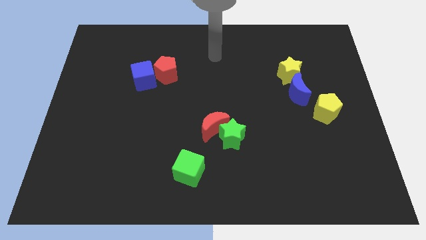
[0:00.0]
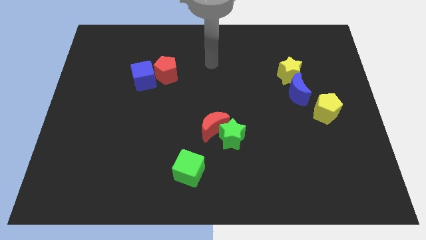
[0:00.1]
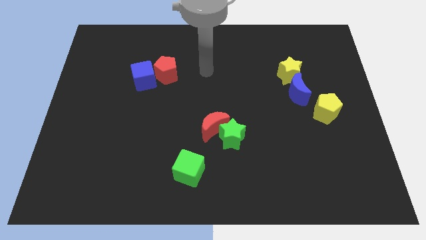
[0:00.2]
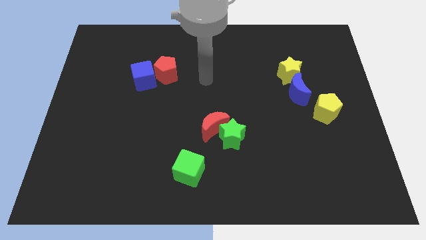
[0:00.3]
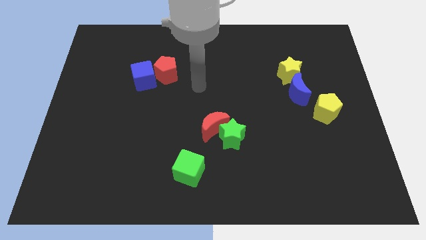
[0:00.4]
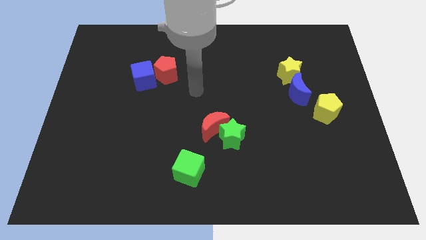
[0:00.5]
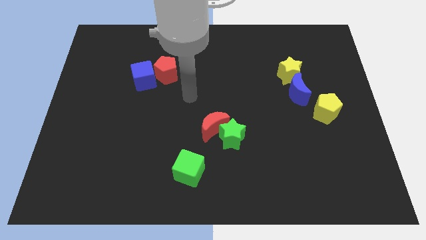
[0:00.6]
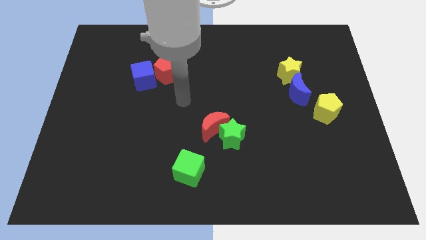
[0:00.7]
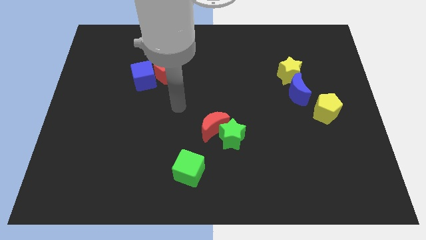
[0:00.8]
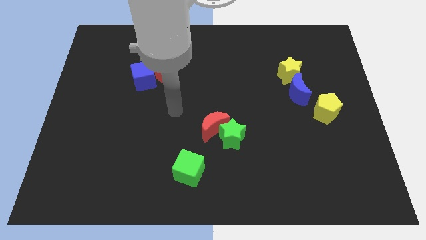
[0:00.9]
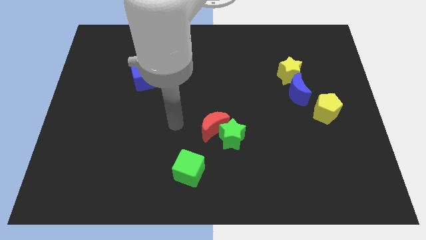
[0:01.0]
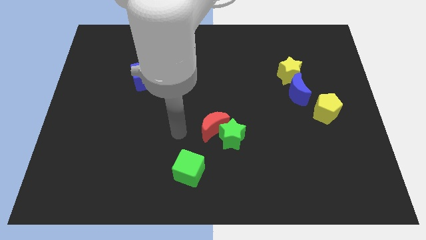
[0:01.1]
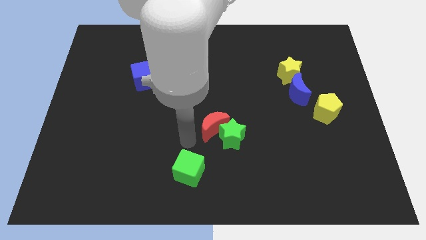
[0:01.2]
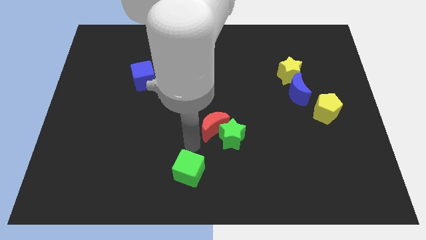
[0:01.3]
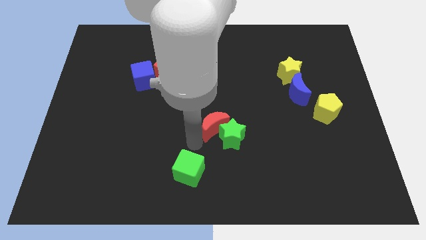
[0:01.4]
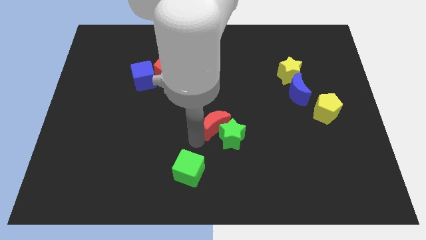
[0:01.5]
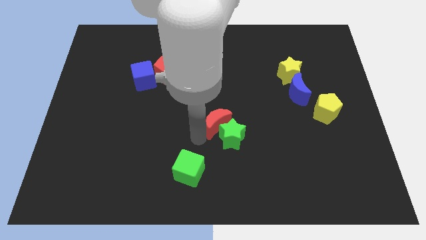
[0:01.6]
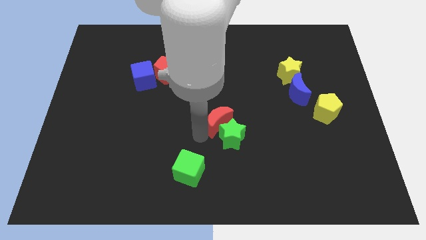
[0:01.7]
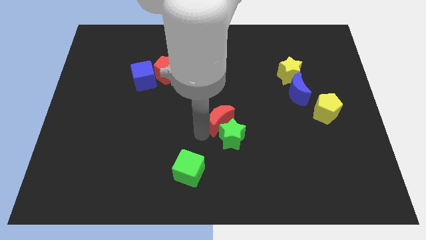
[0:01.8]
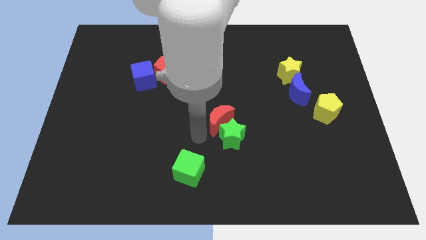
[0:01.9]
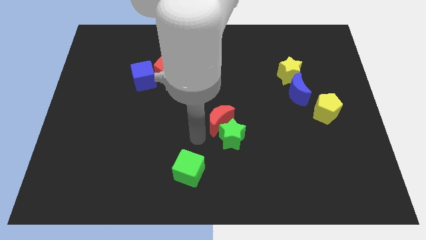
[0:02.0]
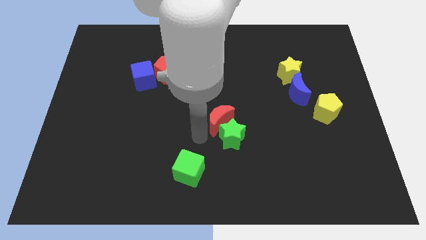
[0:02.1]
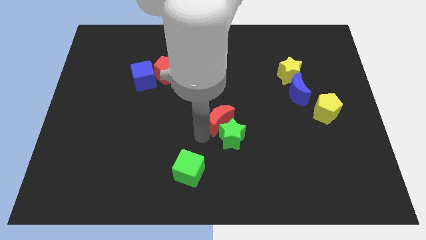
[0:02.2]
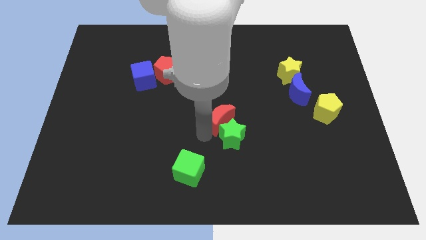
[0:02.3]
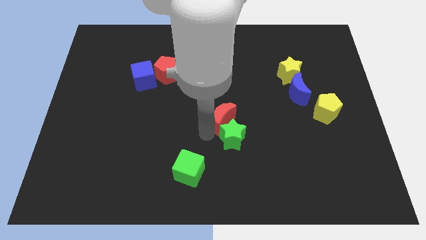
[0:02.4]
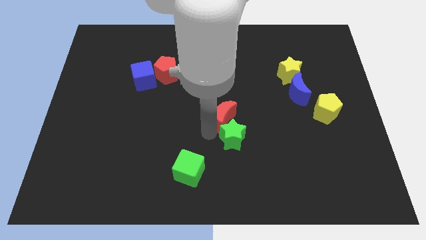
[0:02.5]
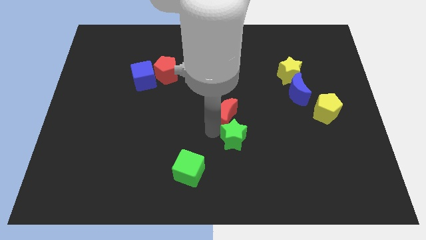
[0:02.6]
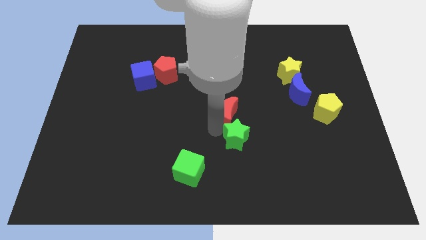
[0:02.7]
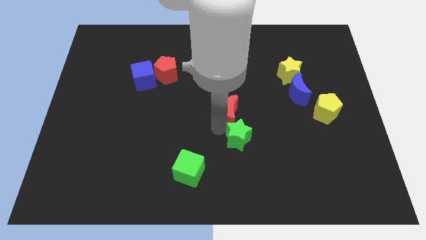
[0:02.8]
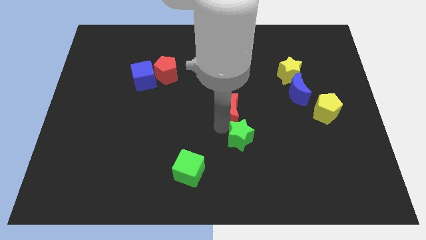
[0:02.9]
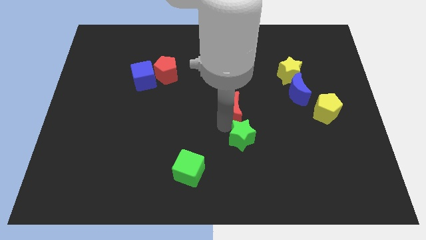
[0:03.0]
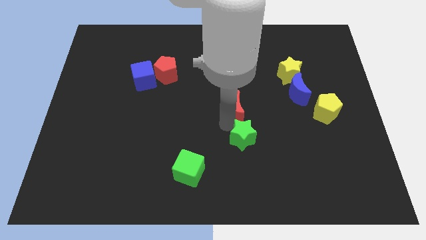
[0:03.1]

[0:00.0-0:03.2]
move the red moon a little bit upwards and to the right

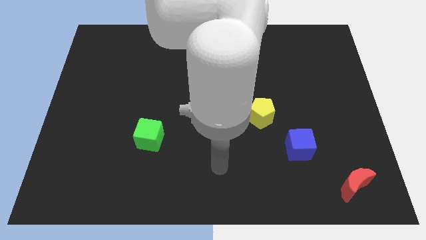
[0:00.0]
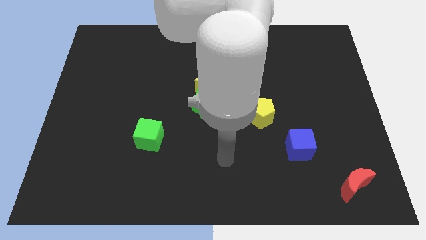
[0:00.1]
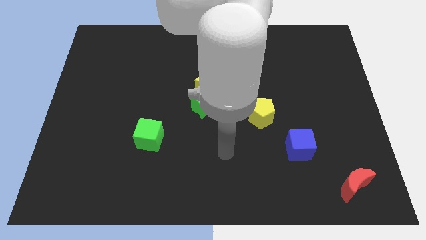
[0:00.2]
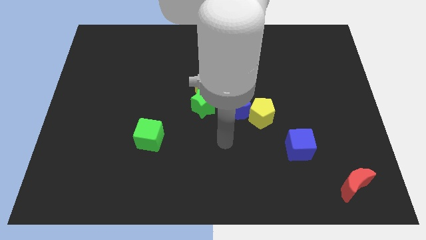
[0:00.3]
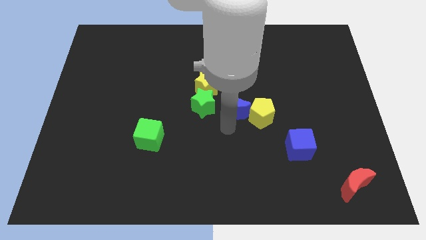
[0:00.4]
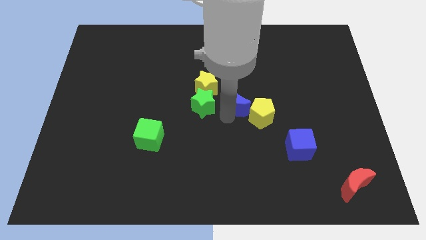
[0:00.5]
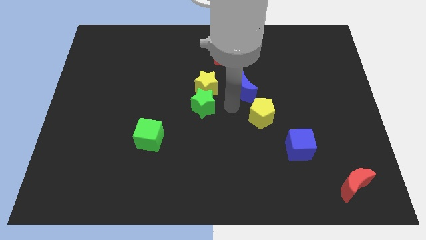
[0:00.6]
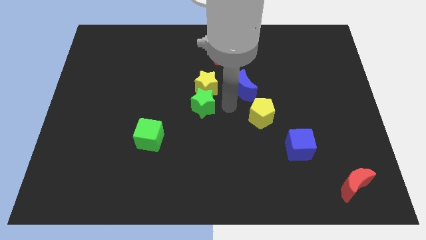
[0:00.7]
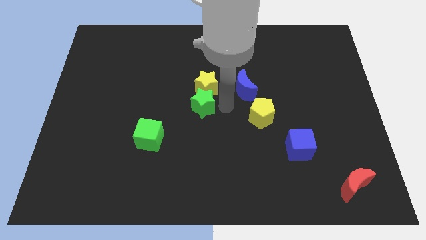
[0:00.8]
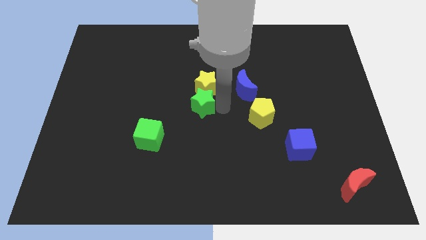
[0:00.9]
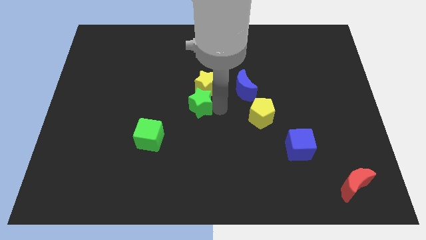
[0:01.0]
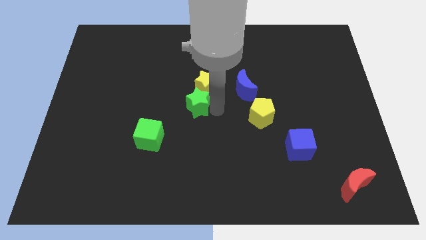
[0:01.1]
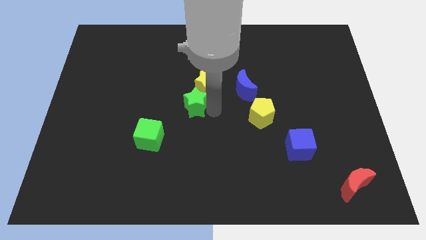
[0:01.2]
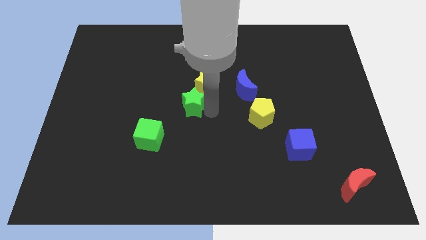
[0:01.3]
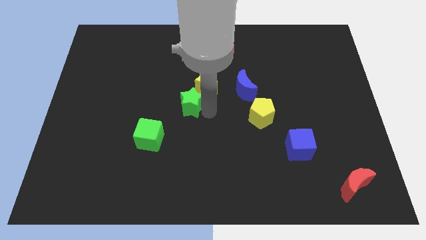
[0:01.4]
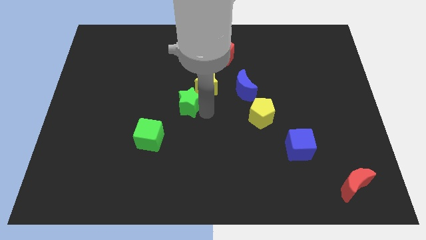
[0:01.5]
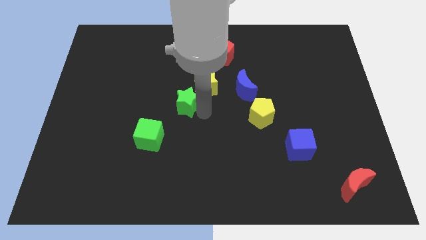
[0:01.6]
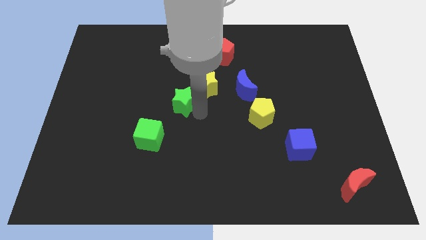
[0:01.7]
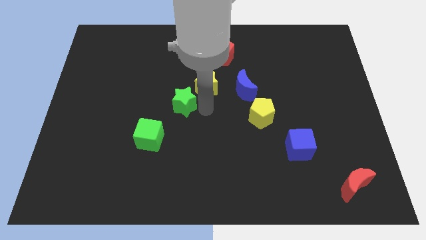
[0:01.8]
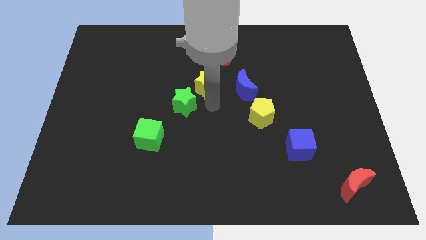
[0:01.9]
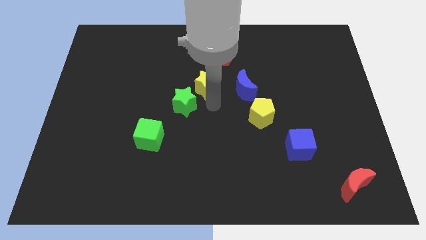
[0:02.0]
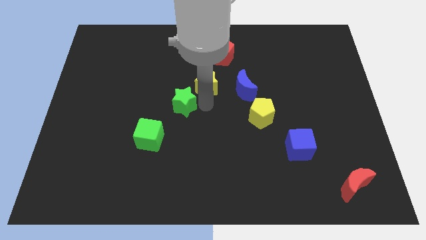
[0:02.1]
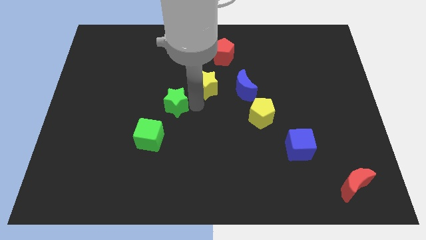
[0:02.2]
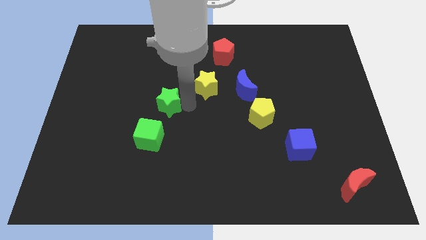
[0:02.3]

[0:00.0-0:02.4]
slightly slide the green star left

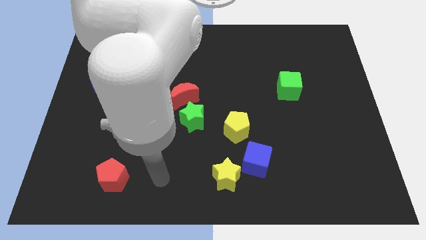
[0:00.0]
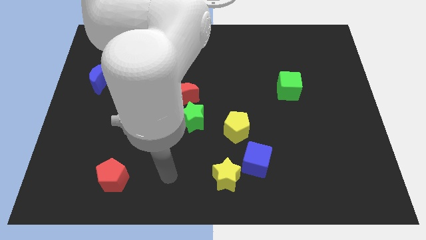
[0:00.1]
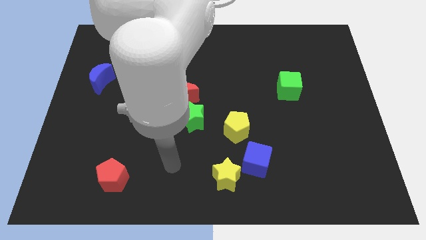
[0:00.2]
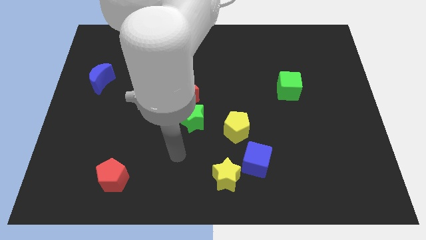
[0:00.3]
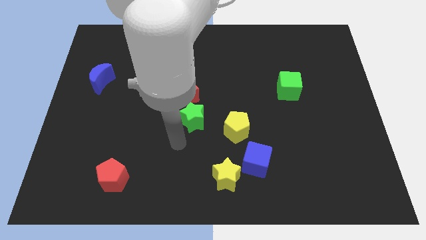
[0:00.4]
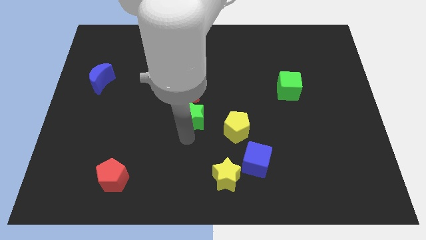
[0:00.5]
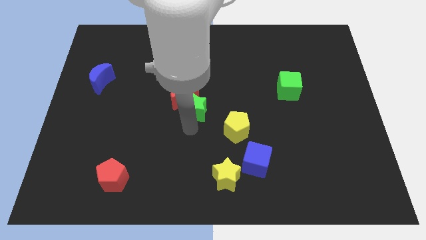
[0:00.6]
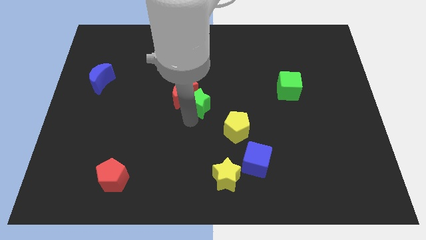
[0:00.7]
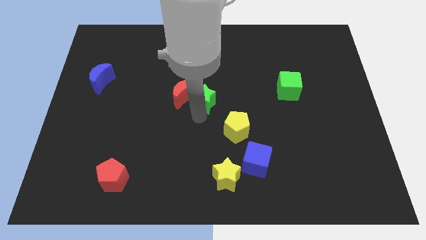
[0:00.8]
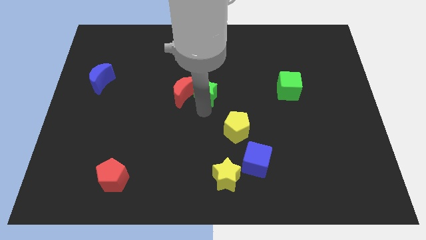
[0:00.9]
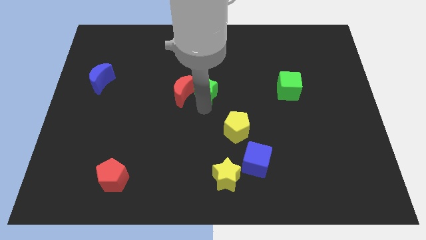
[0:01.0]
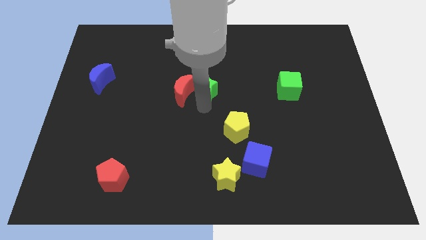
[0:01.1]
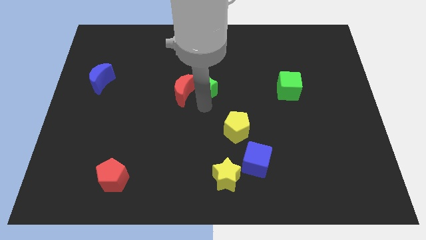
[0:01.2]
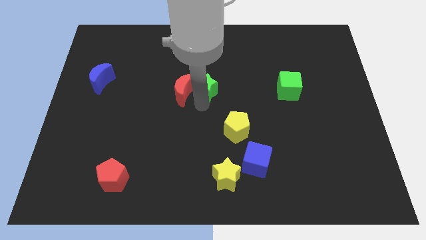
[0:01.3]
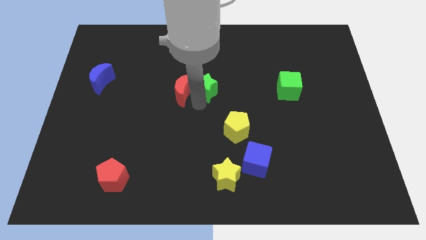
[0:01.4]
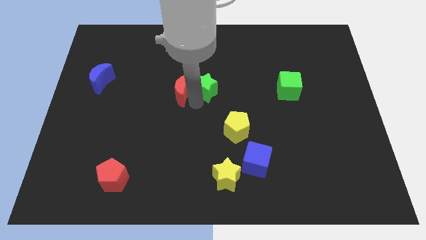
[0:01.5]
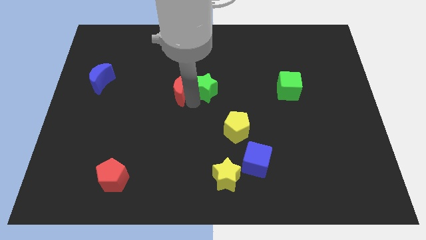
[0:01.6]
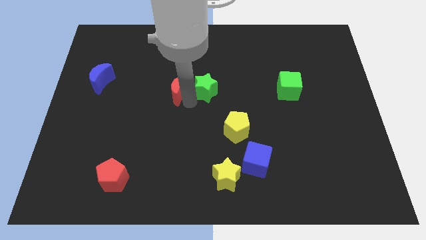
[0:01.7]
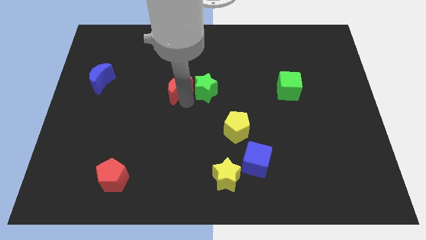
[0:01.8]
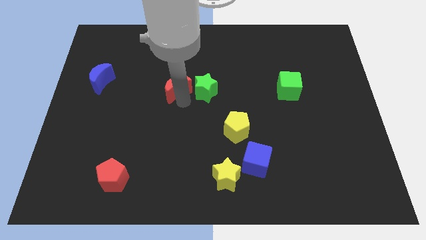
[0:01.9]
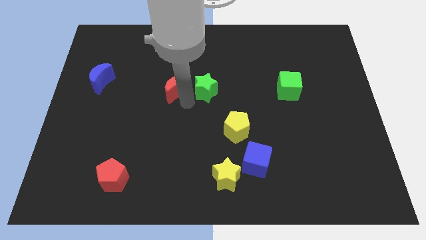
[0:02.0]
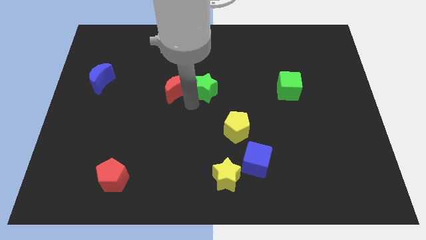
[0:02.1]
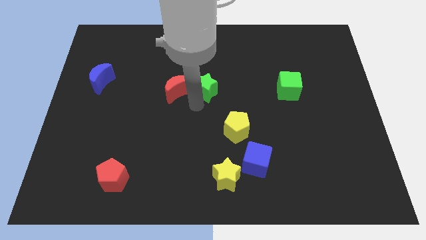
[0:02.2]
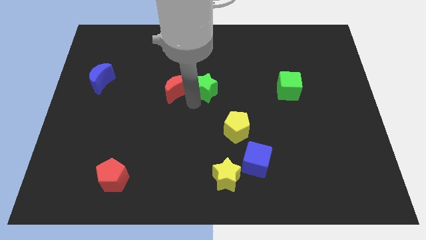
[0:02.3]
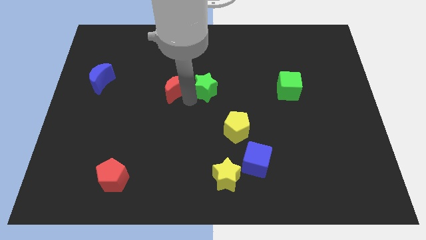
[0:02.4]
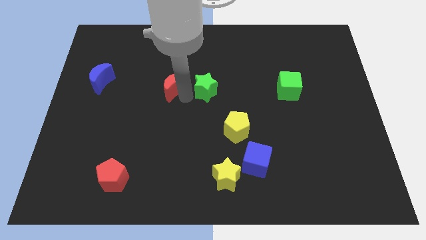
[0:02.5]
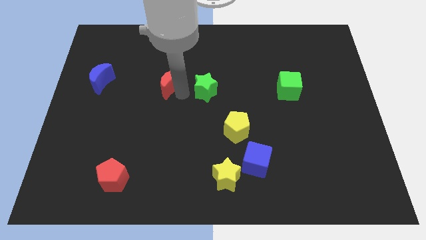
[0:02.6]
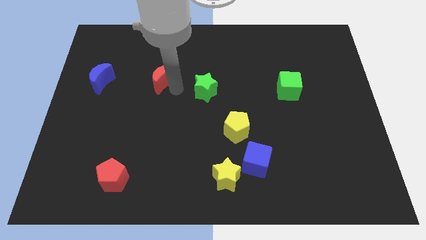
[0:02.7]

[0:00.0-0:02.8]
slightly move the red moon diagonally up and to the left
